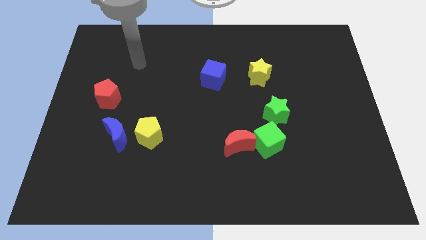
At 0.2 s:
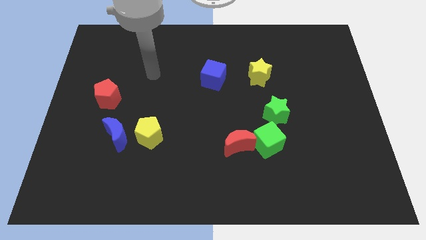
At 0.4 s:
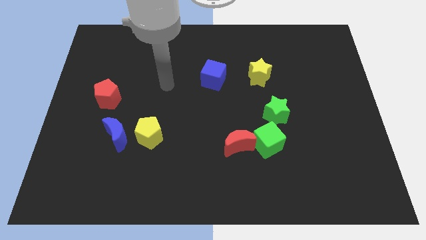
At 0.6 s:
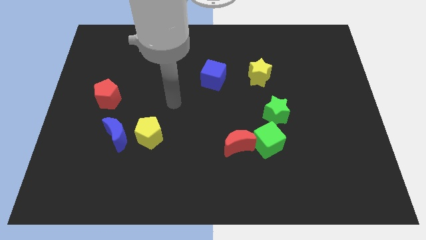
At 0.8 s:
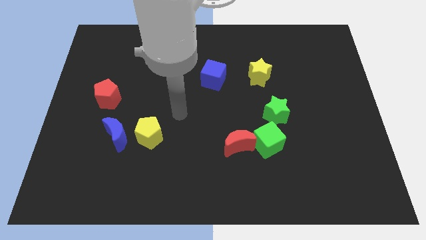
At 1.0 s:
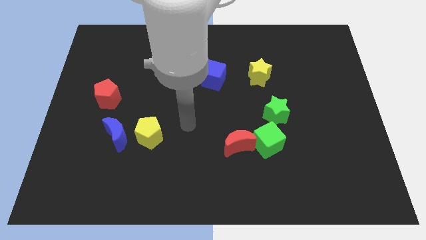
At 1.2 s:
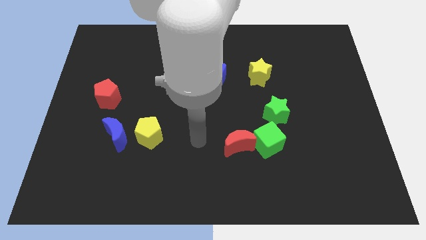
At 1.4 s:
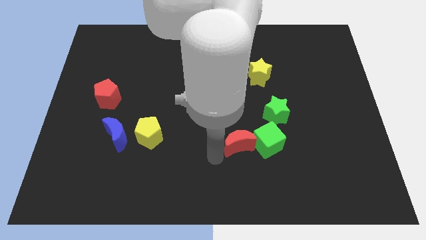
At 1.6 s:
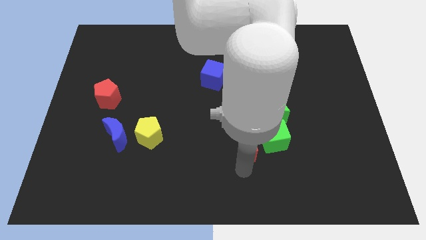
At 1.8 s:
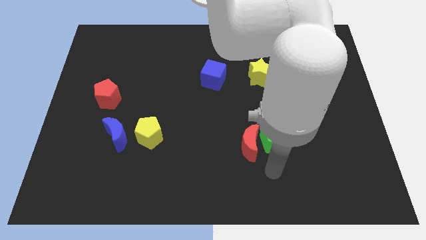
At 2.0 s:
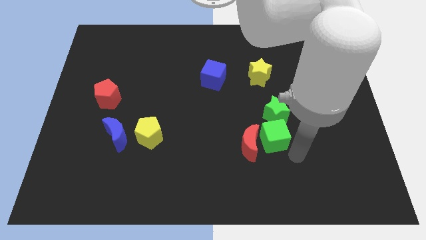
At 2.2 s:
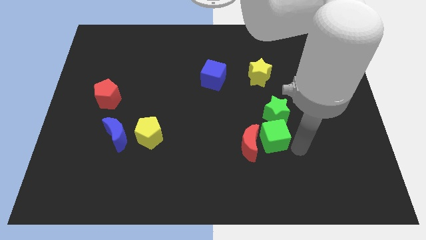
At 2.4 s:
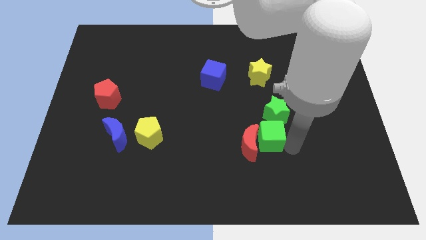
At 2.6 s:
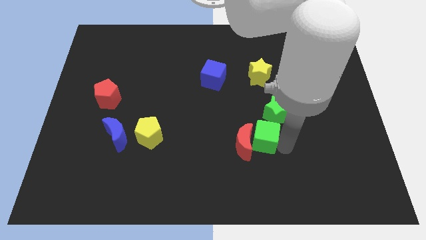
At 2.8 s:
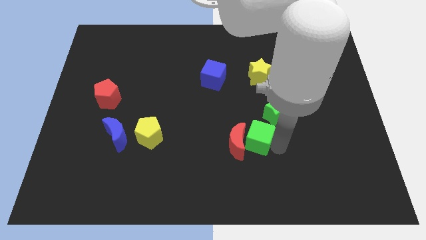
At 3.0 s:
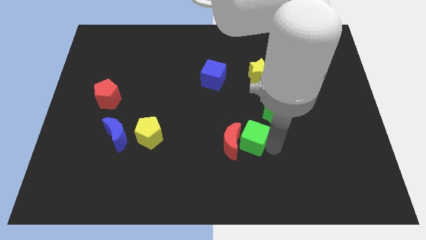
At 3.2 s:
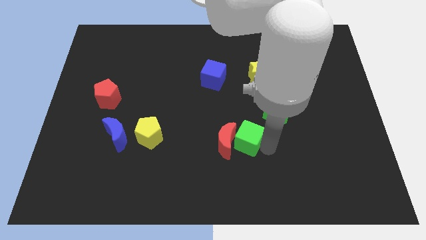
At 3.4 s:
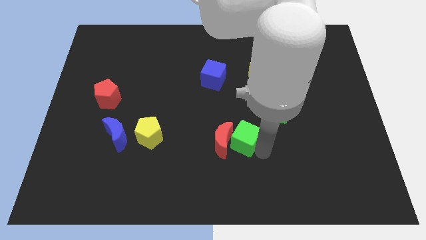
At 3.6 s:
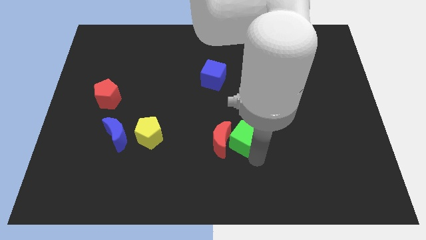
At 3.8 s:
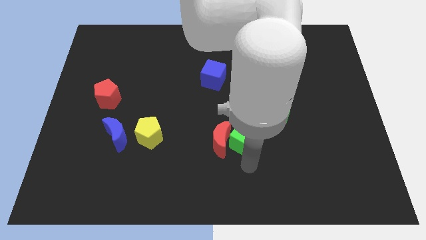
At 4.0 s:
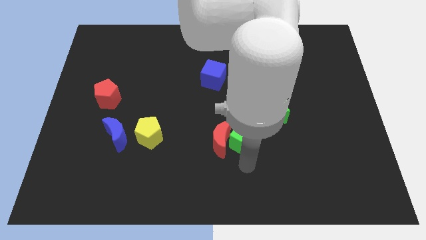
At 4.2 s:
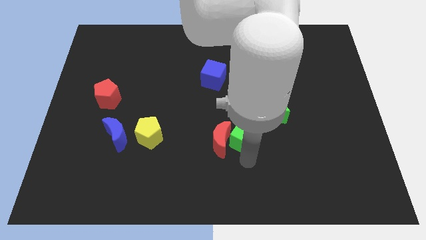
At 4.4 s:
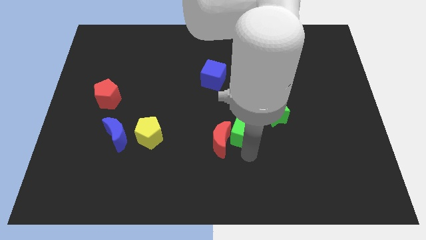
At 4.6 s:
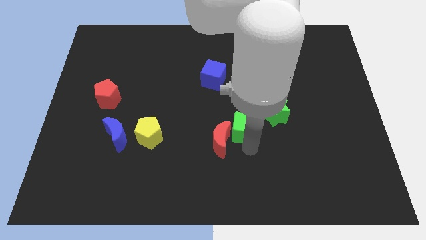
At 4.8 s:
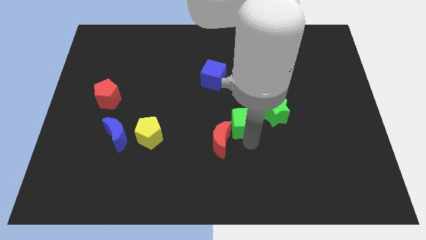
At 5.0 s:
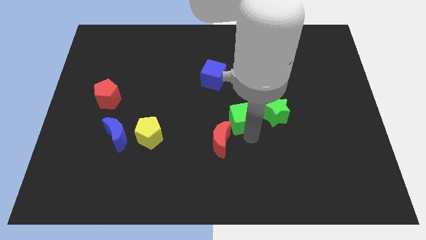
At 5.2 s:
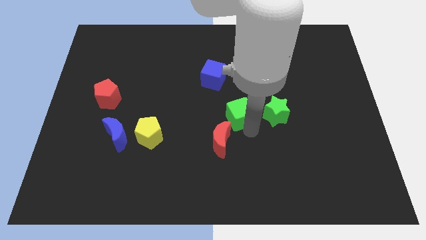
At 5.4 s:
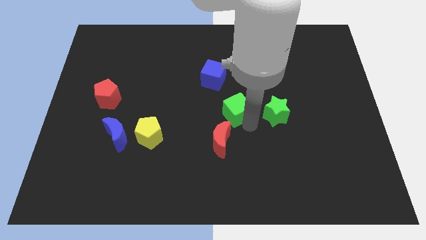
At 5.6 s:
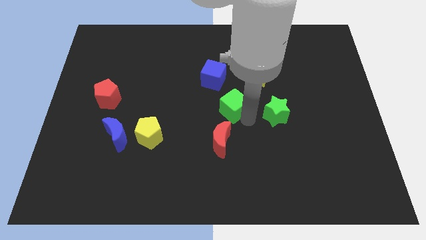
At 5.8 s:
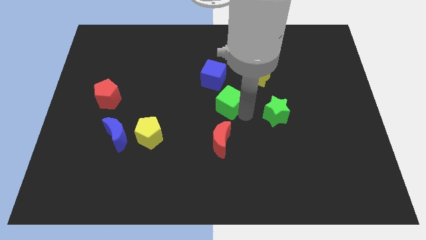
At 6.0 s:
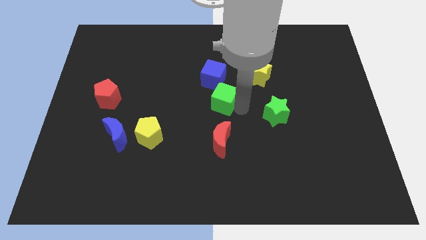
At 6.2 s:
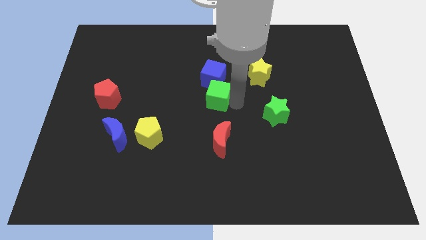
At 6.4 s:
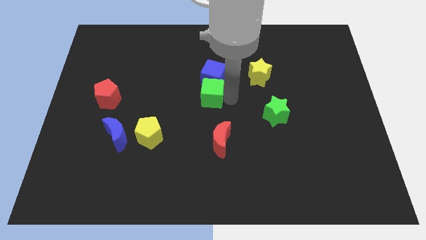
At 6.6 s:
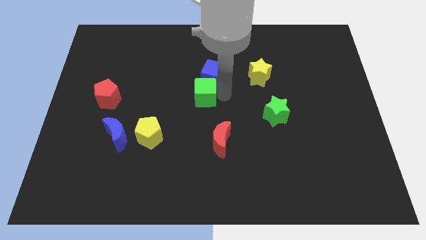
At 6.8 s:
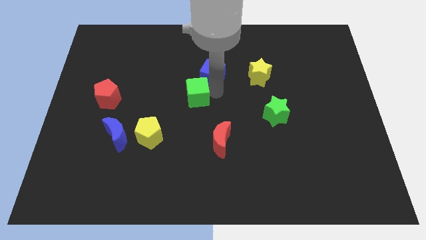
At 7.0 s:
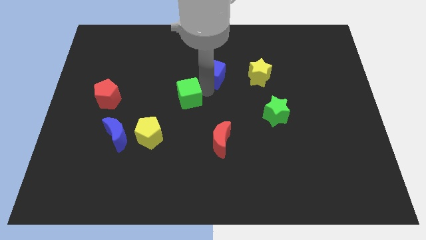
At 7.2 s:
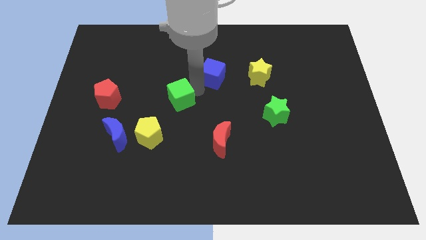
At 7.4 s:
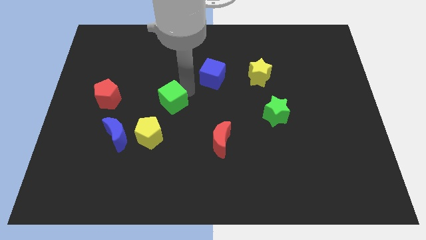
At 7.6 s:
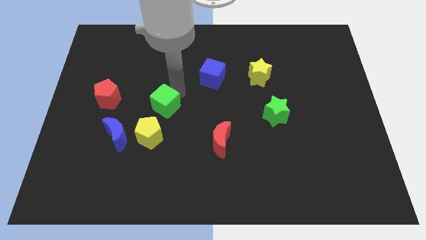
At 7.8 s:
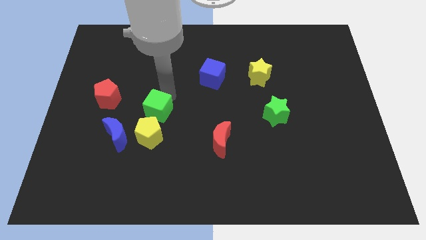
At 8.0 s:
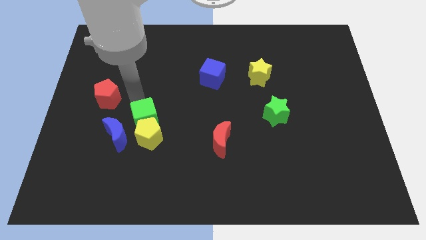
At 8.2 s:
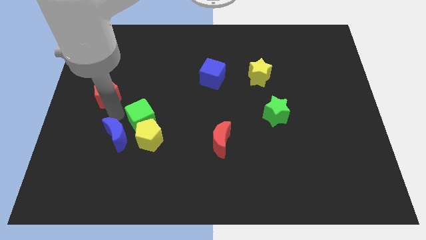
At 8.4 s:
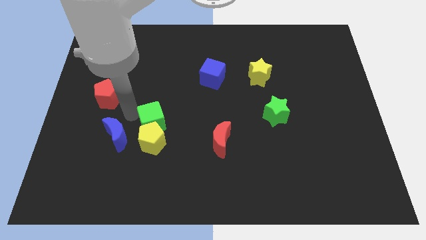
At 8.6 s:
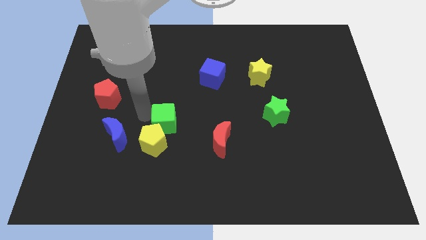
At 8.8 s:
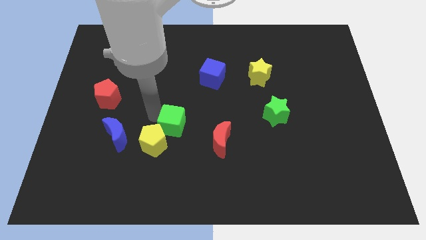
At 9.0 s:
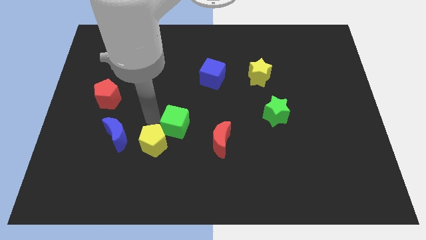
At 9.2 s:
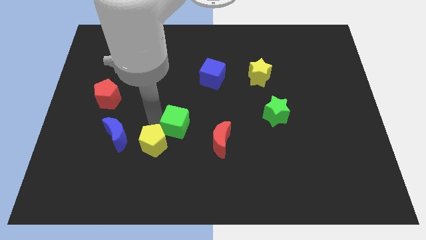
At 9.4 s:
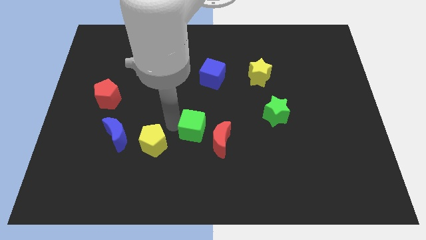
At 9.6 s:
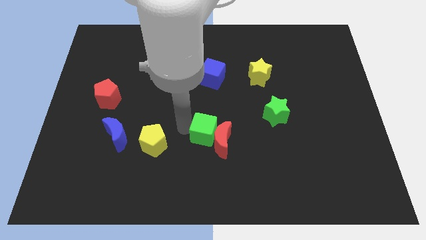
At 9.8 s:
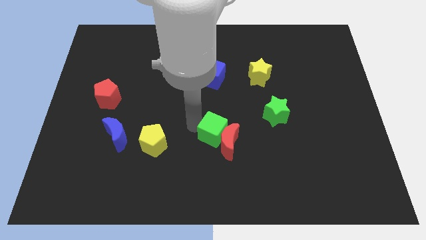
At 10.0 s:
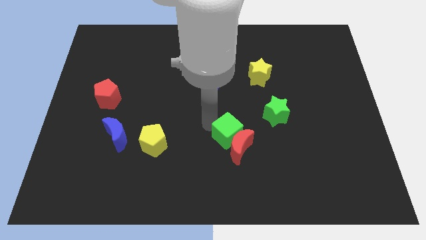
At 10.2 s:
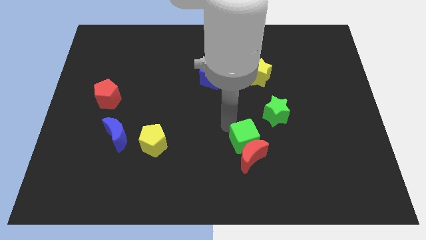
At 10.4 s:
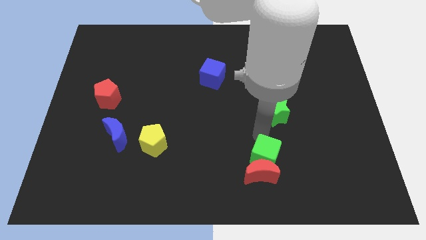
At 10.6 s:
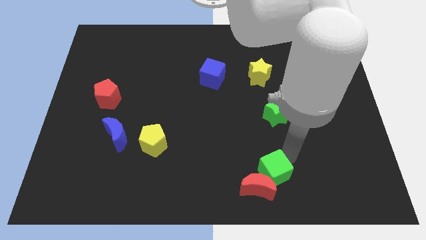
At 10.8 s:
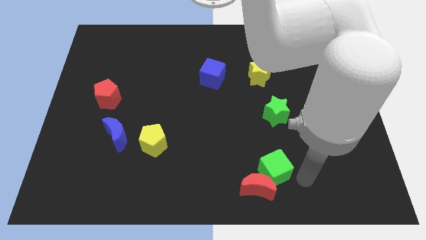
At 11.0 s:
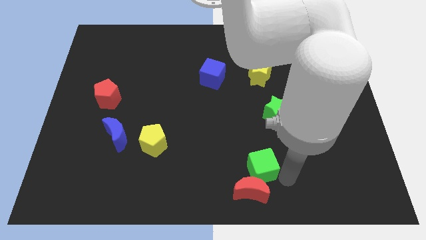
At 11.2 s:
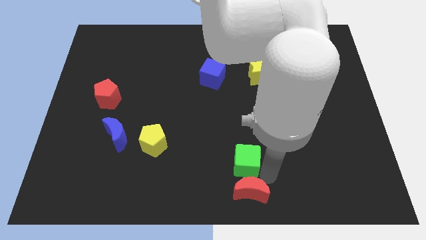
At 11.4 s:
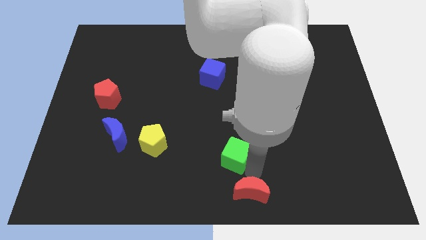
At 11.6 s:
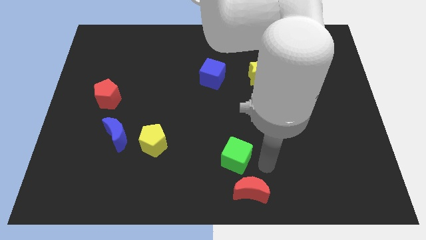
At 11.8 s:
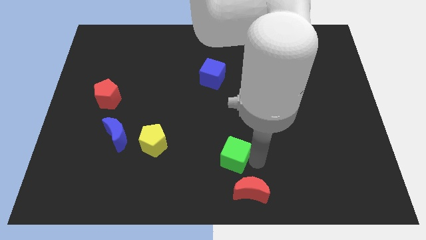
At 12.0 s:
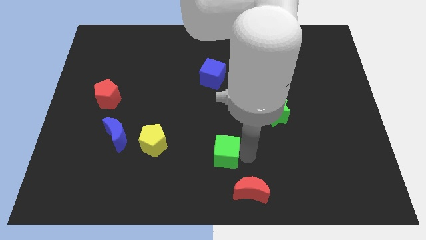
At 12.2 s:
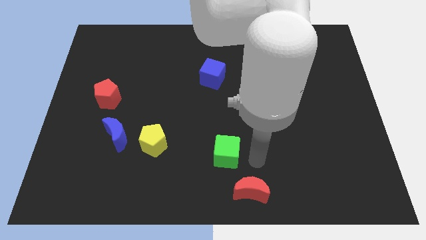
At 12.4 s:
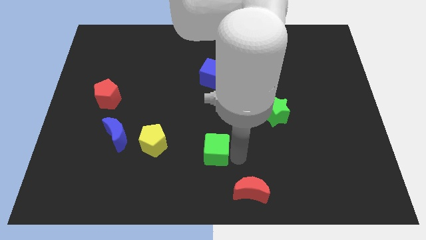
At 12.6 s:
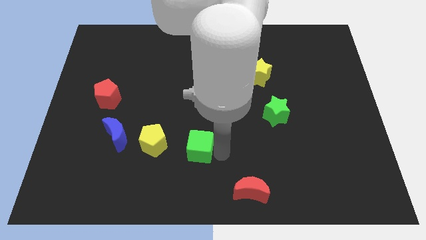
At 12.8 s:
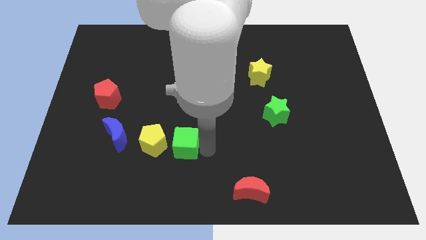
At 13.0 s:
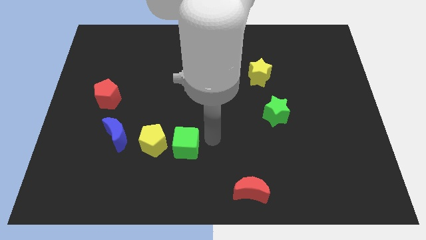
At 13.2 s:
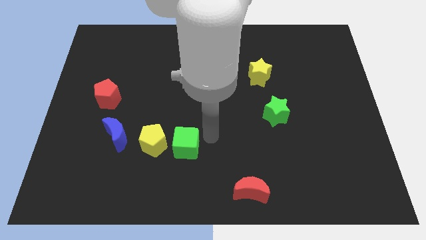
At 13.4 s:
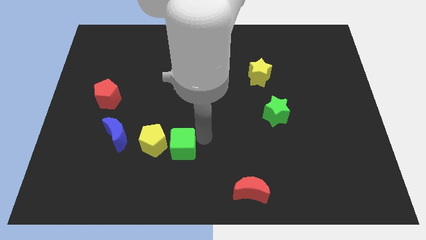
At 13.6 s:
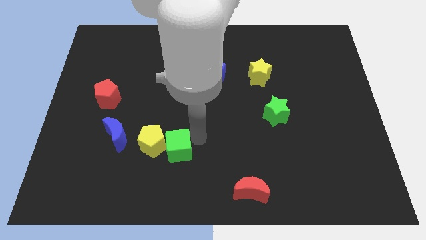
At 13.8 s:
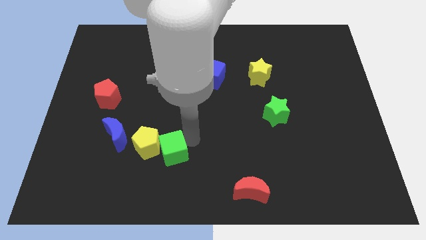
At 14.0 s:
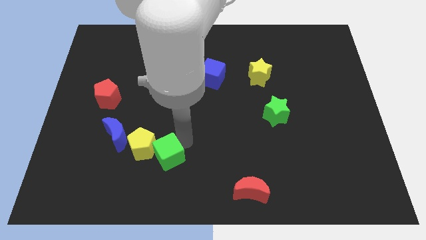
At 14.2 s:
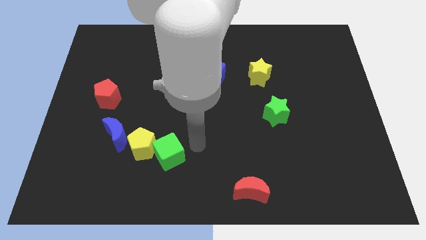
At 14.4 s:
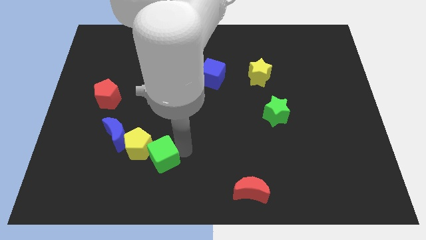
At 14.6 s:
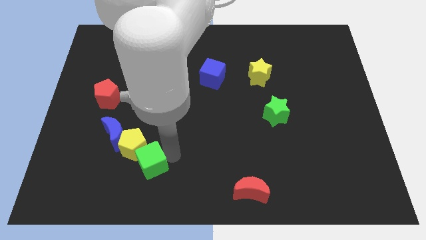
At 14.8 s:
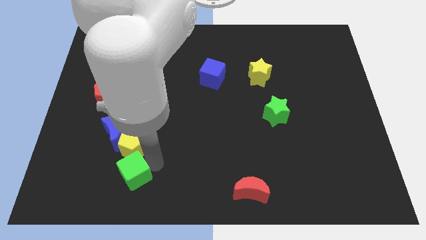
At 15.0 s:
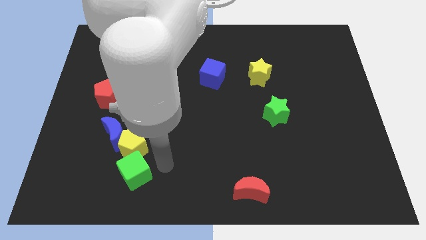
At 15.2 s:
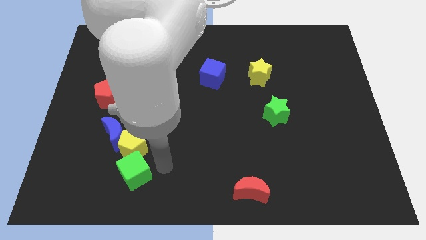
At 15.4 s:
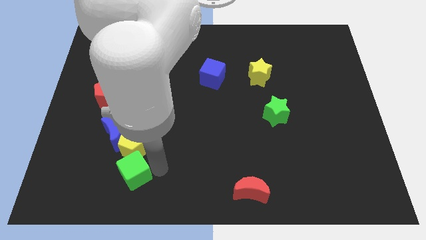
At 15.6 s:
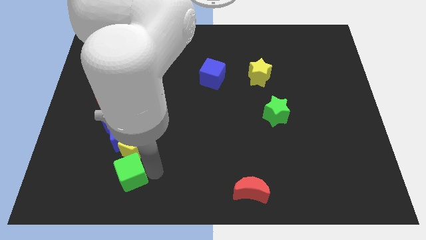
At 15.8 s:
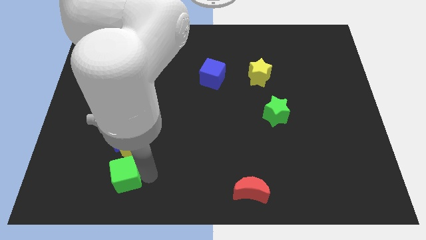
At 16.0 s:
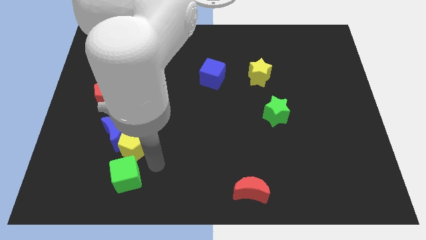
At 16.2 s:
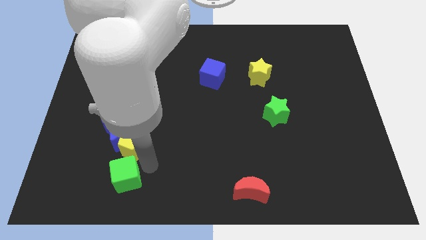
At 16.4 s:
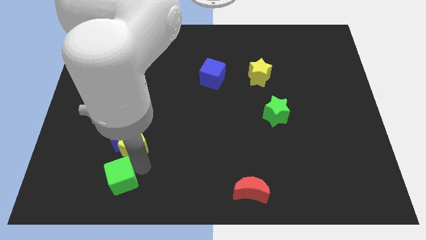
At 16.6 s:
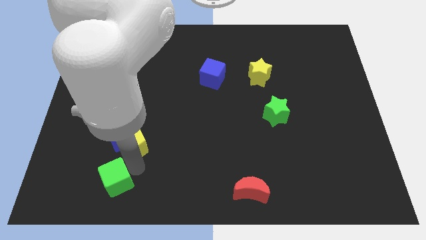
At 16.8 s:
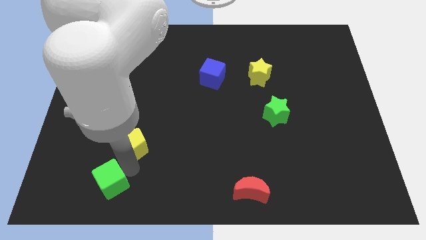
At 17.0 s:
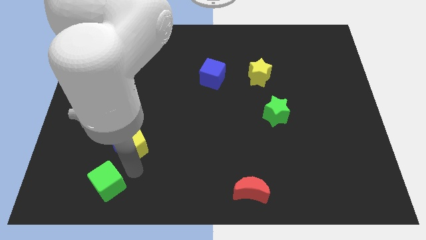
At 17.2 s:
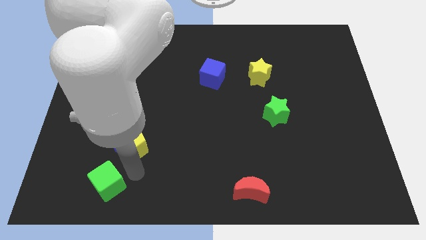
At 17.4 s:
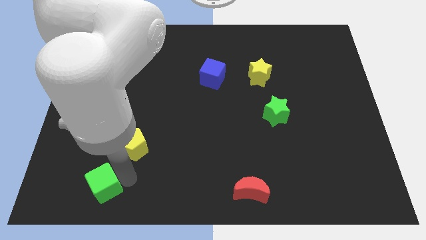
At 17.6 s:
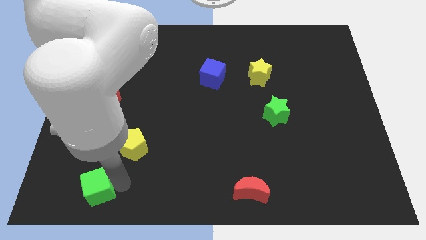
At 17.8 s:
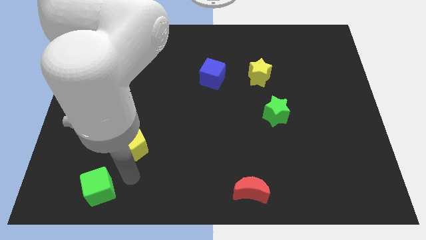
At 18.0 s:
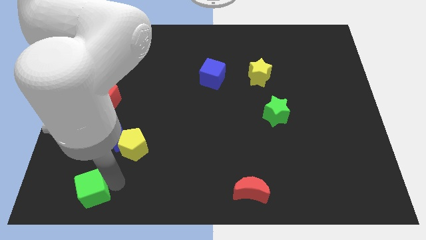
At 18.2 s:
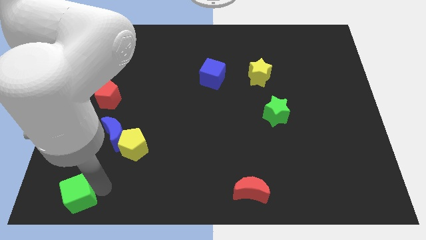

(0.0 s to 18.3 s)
slide the green cube to the bottom left of the board
